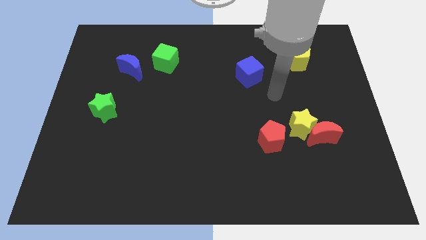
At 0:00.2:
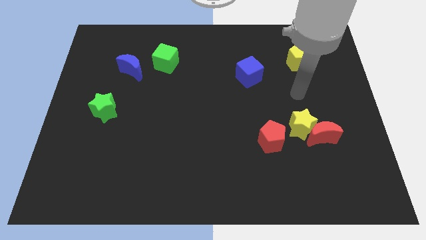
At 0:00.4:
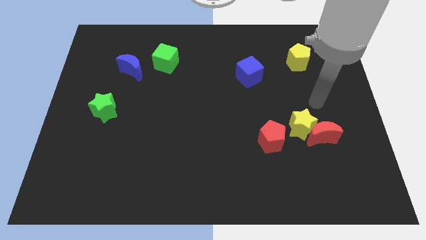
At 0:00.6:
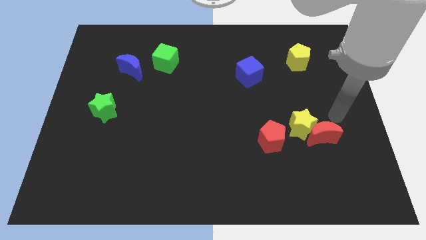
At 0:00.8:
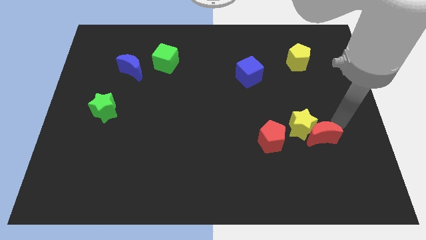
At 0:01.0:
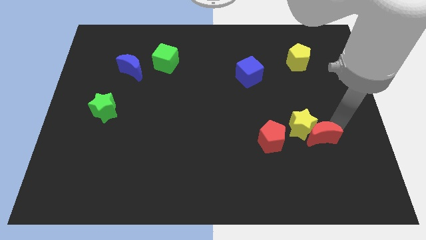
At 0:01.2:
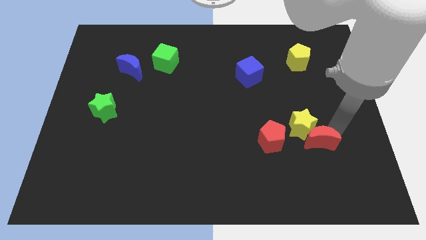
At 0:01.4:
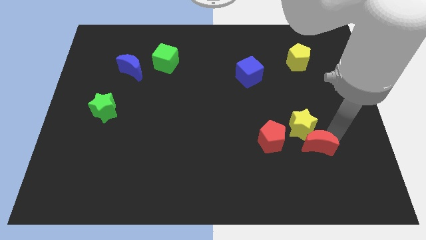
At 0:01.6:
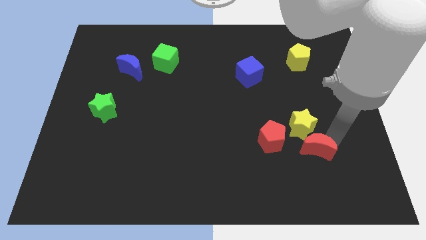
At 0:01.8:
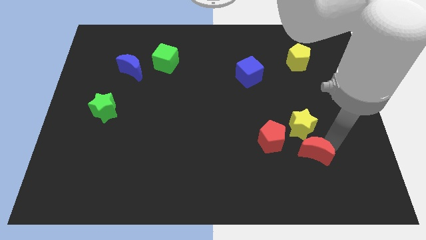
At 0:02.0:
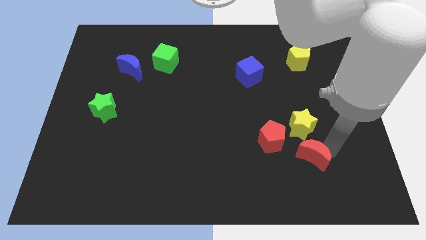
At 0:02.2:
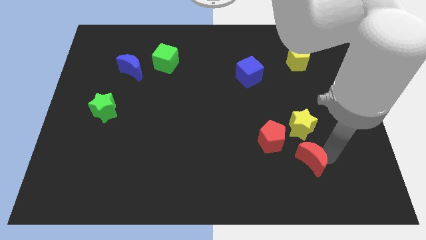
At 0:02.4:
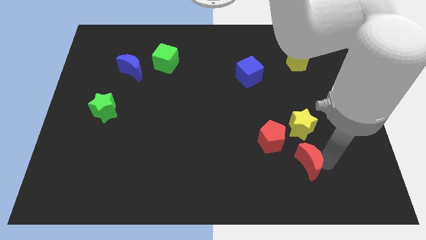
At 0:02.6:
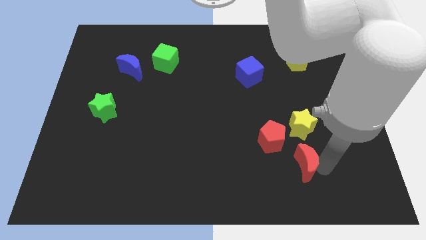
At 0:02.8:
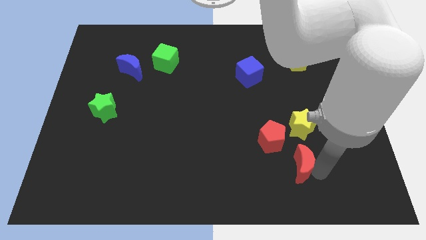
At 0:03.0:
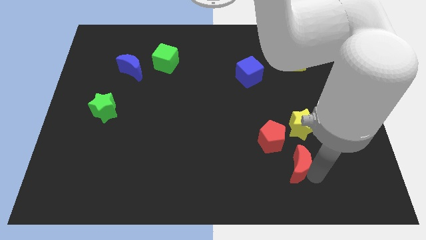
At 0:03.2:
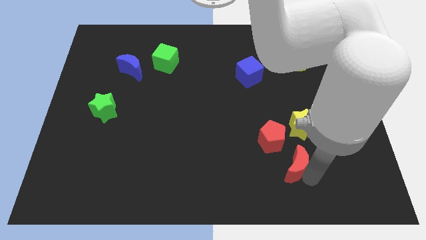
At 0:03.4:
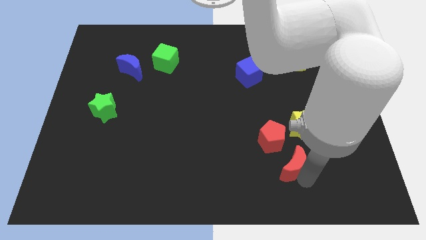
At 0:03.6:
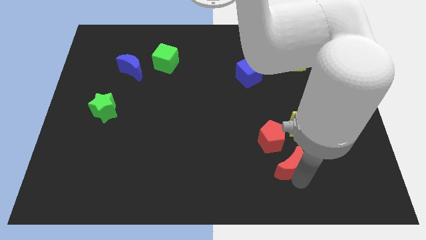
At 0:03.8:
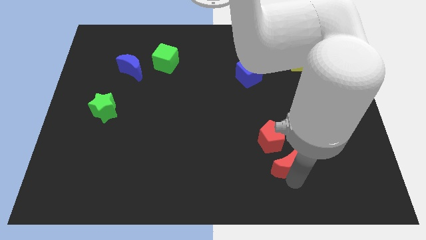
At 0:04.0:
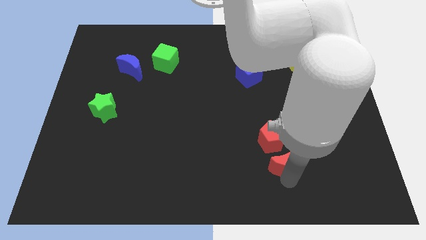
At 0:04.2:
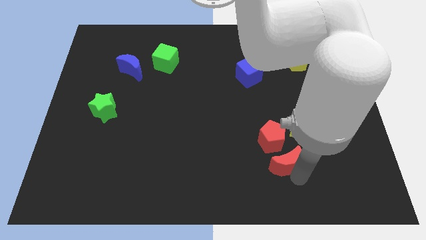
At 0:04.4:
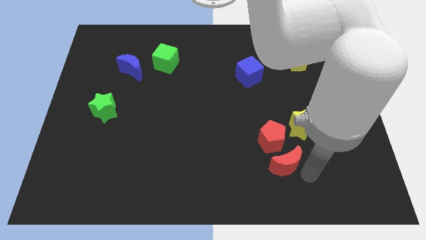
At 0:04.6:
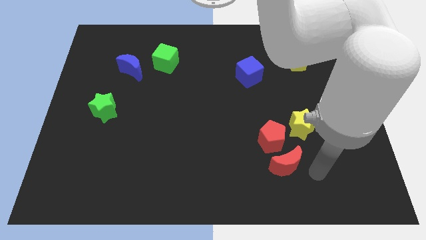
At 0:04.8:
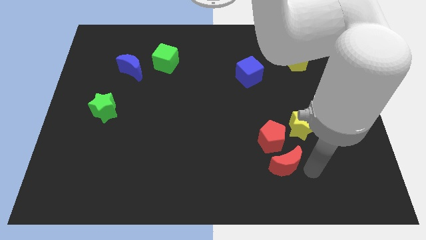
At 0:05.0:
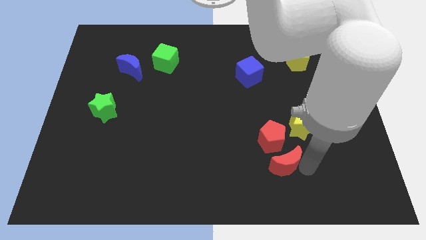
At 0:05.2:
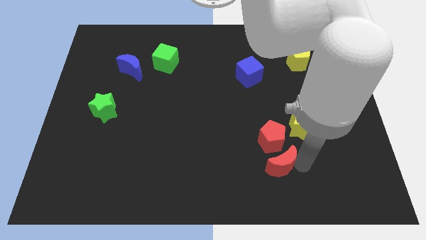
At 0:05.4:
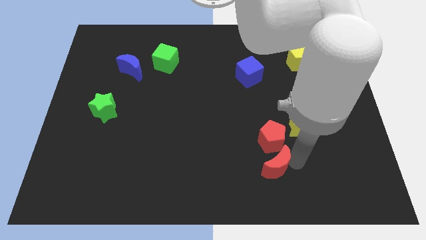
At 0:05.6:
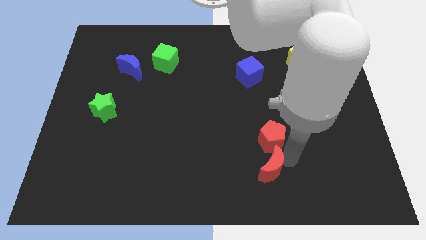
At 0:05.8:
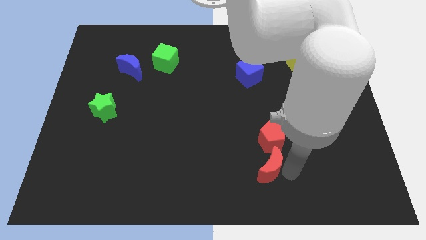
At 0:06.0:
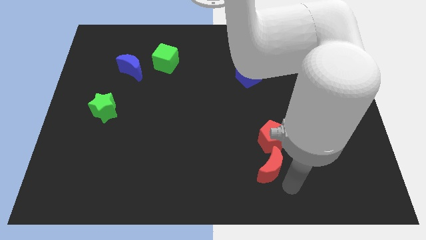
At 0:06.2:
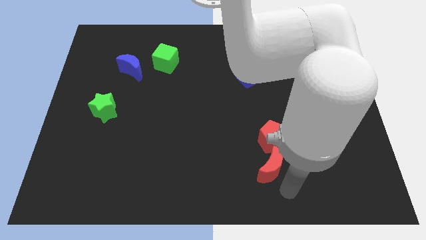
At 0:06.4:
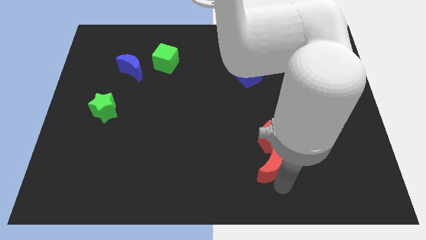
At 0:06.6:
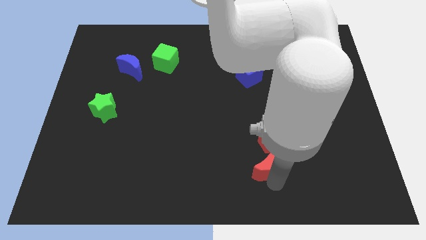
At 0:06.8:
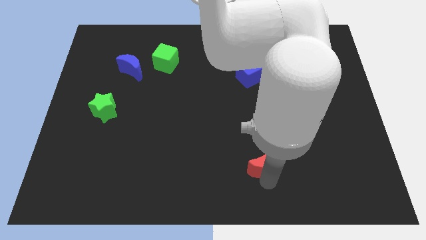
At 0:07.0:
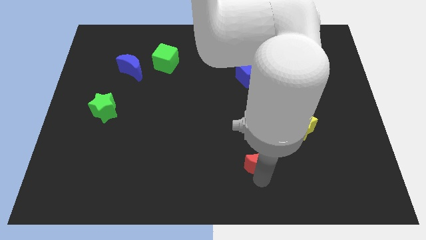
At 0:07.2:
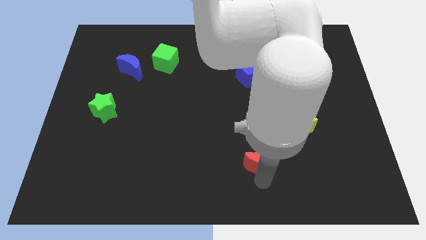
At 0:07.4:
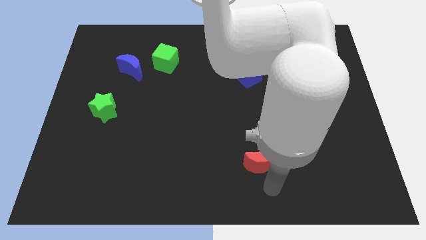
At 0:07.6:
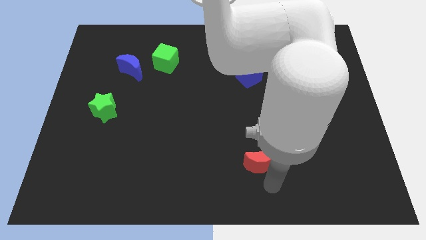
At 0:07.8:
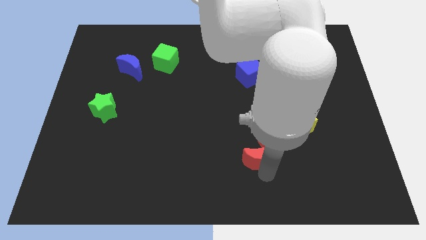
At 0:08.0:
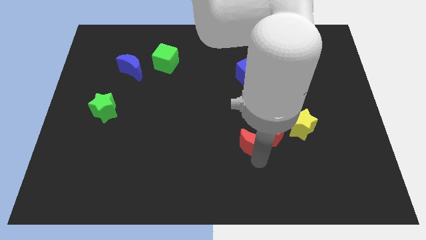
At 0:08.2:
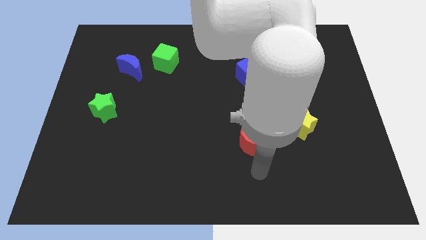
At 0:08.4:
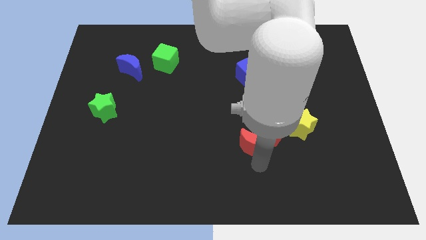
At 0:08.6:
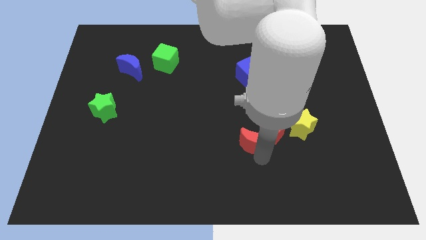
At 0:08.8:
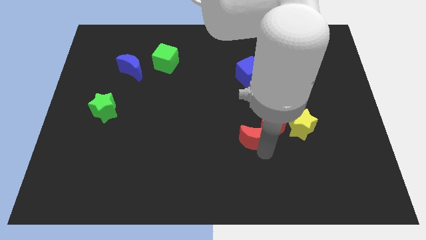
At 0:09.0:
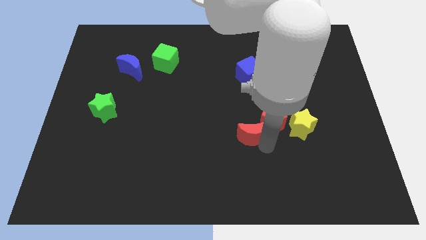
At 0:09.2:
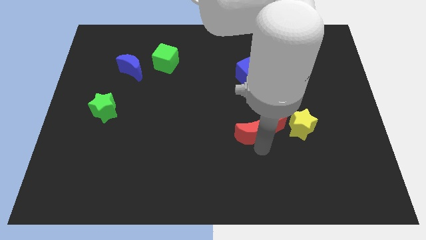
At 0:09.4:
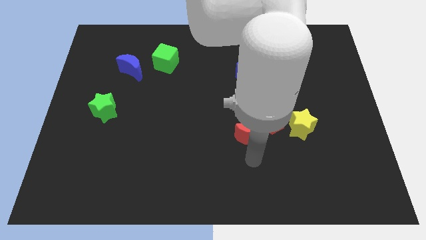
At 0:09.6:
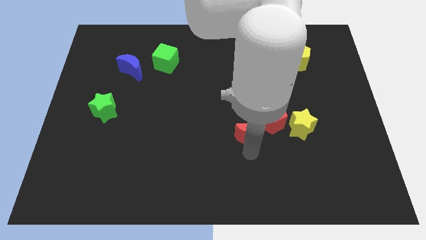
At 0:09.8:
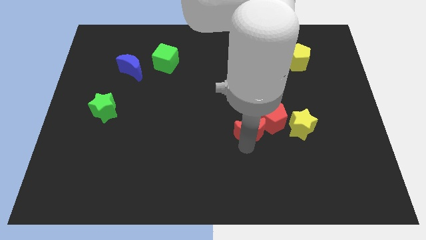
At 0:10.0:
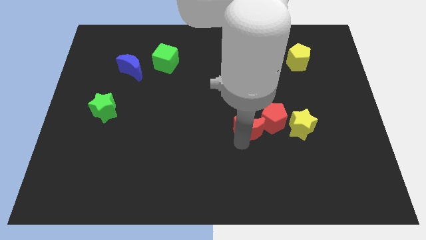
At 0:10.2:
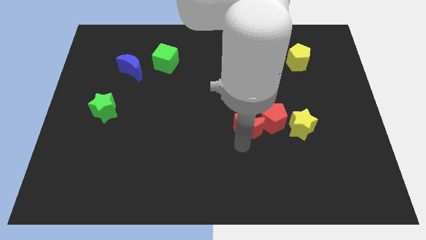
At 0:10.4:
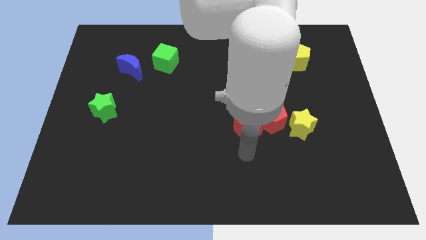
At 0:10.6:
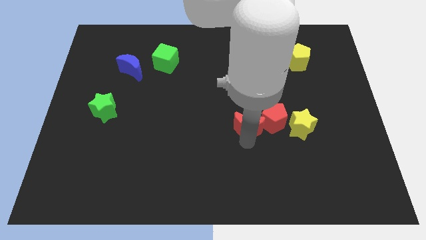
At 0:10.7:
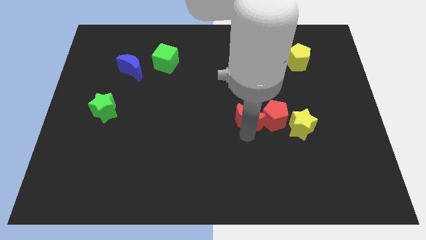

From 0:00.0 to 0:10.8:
put the red moon to the top left side of the red pentagon

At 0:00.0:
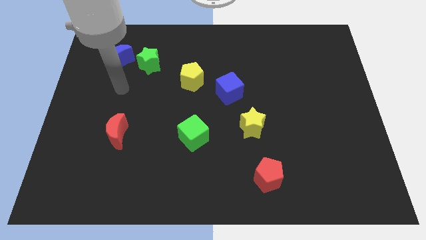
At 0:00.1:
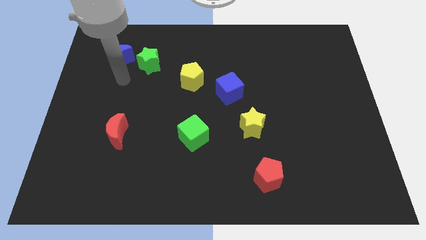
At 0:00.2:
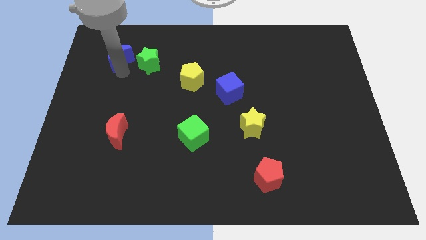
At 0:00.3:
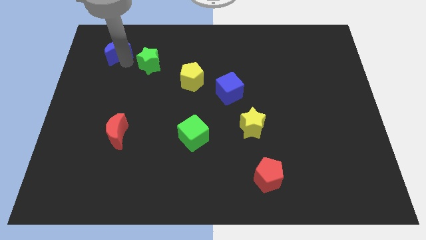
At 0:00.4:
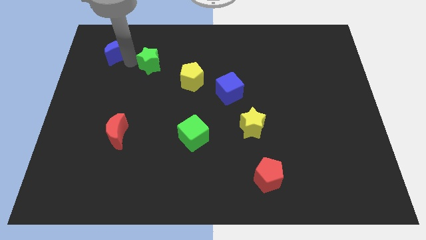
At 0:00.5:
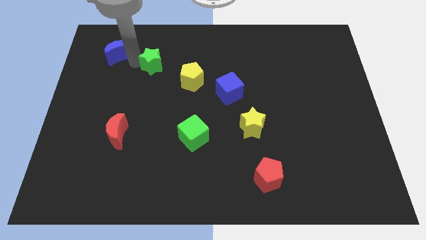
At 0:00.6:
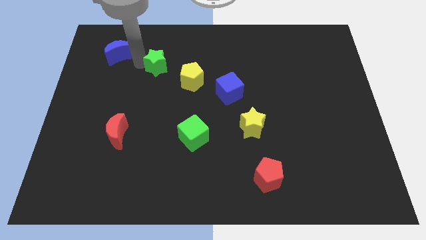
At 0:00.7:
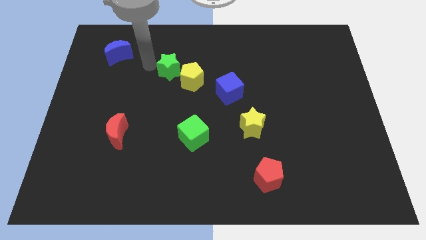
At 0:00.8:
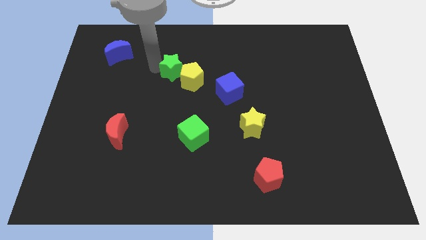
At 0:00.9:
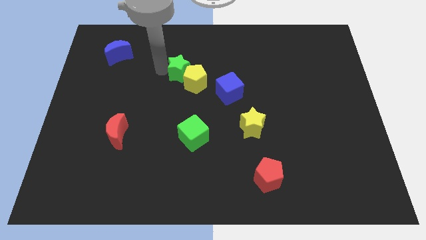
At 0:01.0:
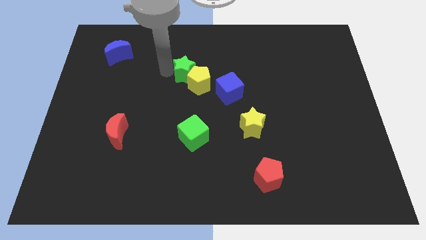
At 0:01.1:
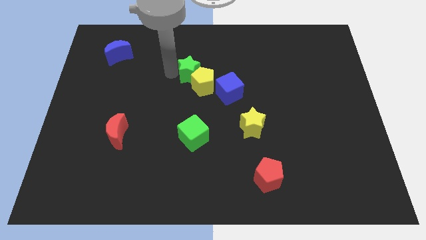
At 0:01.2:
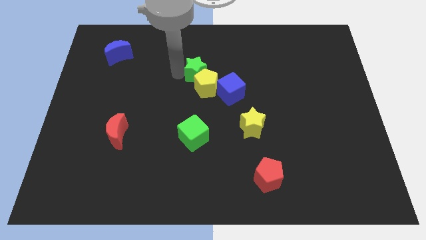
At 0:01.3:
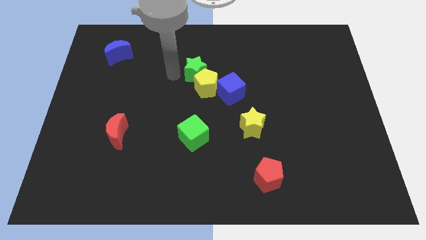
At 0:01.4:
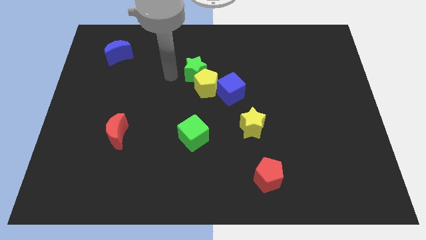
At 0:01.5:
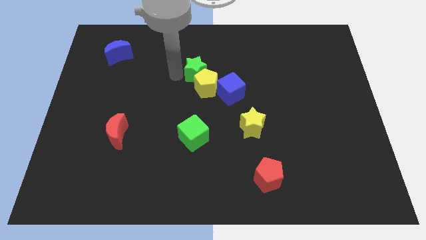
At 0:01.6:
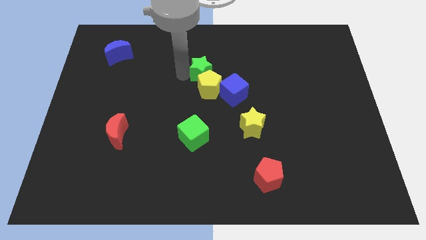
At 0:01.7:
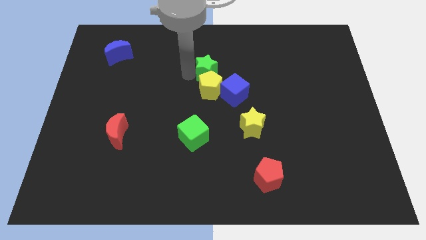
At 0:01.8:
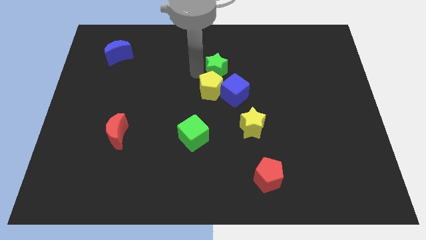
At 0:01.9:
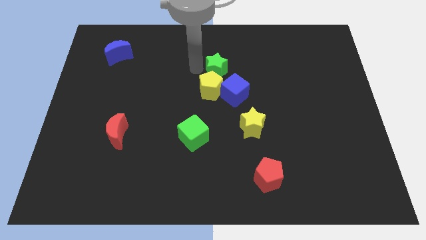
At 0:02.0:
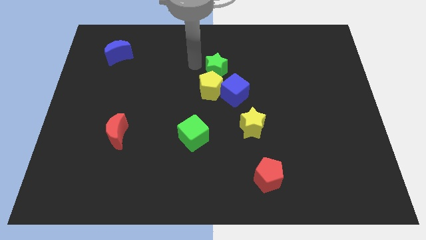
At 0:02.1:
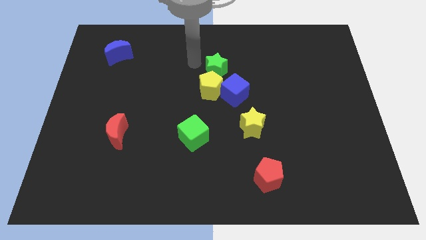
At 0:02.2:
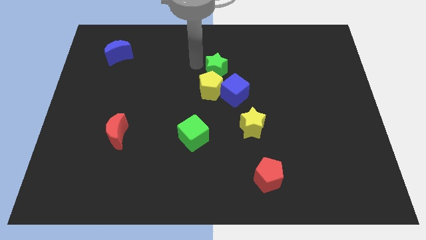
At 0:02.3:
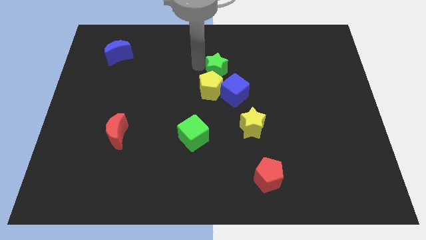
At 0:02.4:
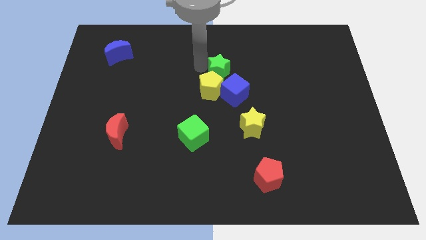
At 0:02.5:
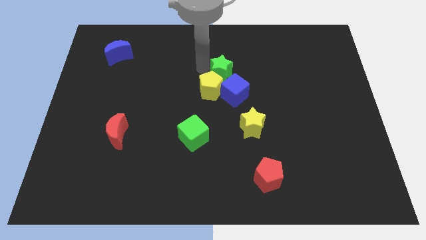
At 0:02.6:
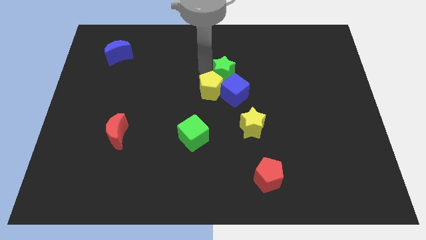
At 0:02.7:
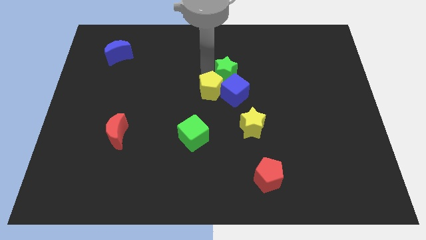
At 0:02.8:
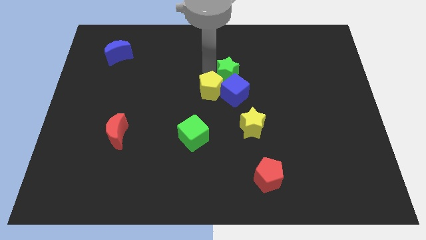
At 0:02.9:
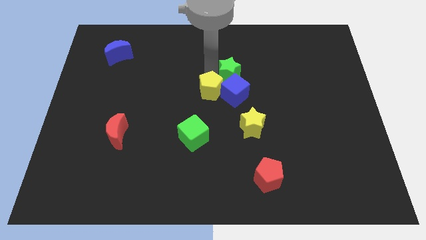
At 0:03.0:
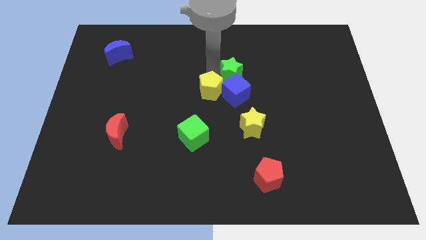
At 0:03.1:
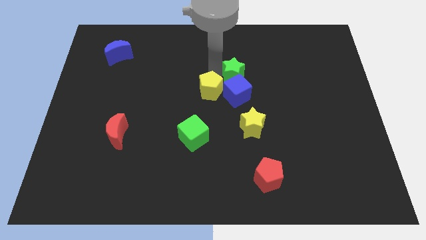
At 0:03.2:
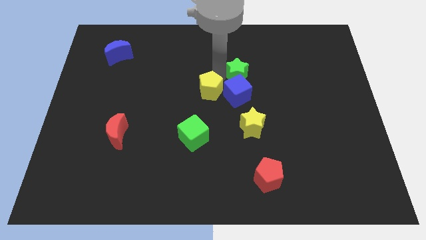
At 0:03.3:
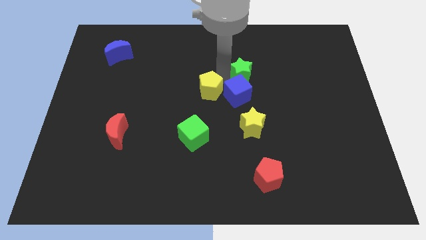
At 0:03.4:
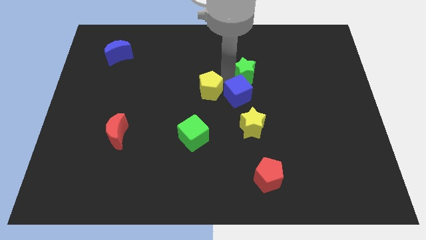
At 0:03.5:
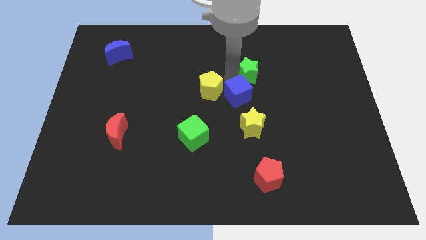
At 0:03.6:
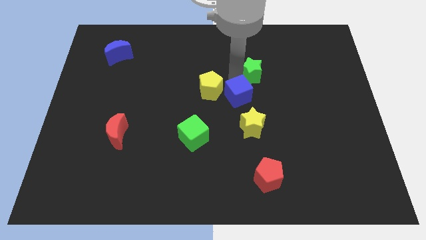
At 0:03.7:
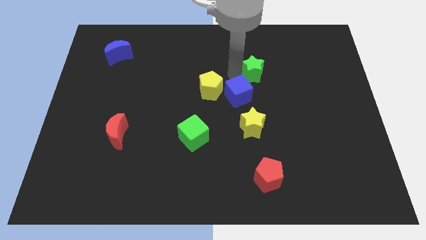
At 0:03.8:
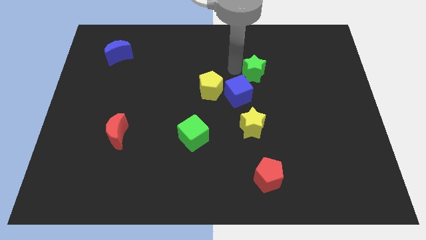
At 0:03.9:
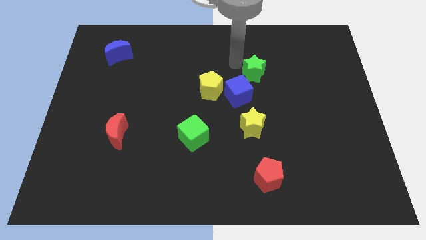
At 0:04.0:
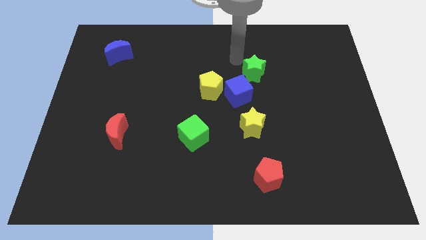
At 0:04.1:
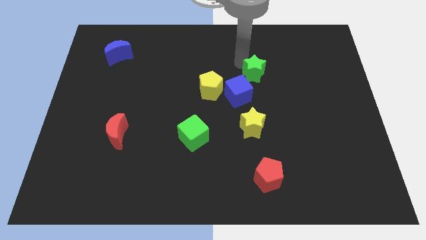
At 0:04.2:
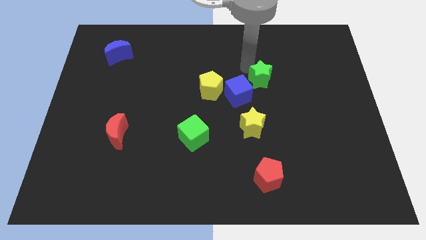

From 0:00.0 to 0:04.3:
move the green star right of the blue cube
